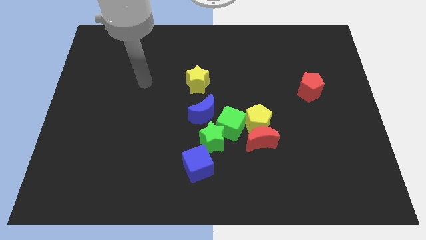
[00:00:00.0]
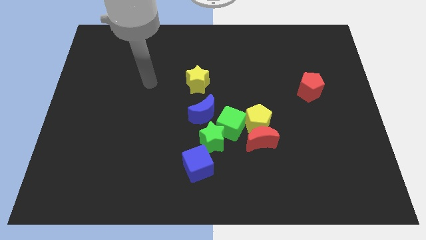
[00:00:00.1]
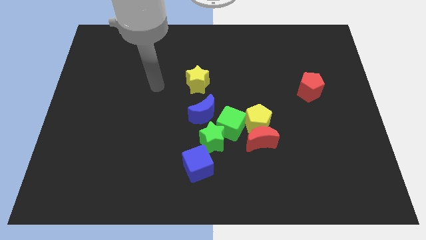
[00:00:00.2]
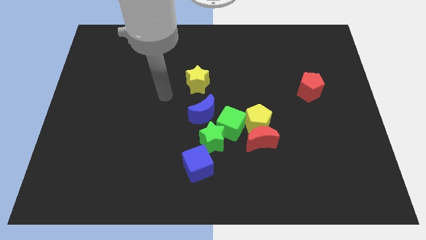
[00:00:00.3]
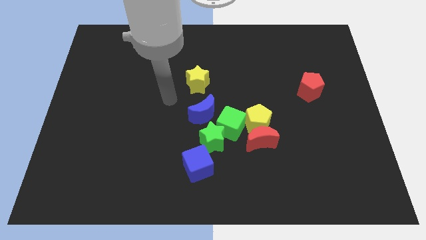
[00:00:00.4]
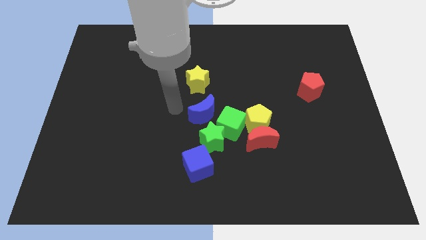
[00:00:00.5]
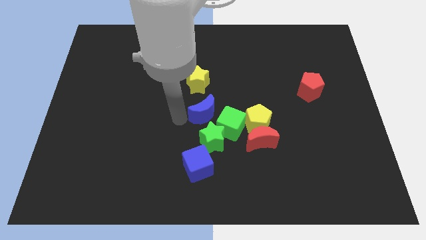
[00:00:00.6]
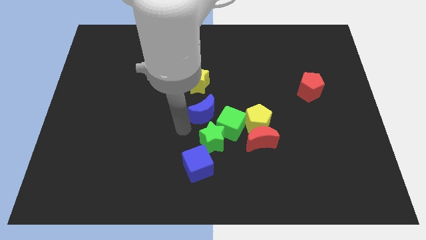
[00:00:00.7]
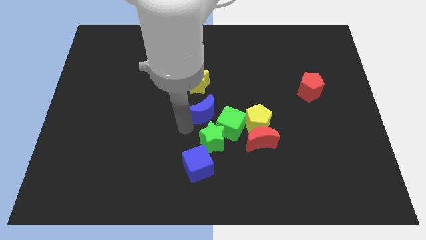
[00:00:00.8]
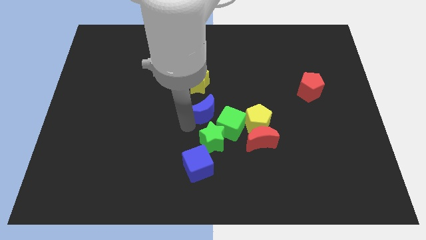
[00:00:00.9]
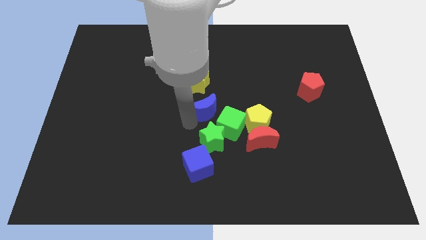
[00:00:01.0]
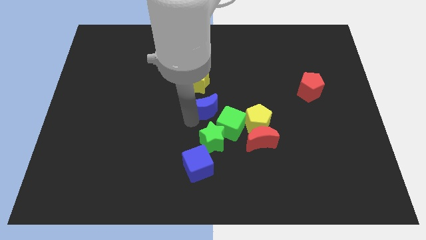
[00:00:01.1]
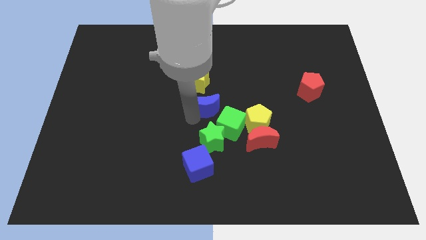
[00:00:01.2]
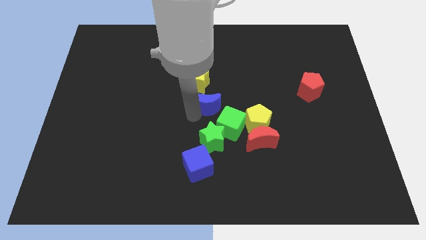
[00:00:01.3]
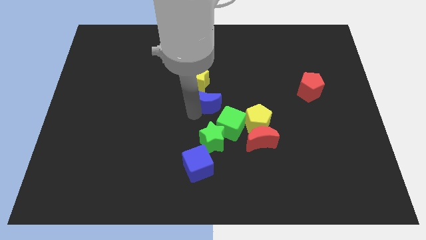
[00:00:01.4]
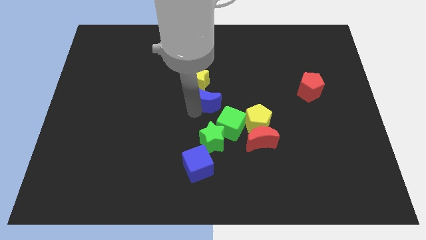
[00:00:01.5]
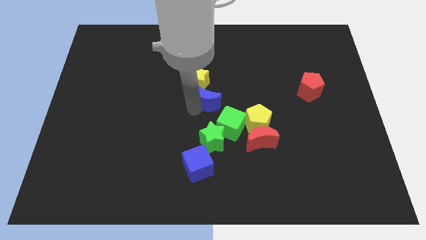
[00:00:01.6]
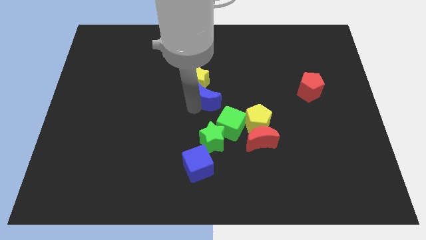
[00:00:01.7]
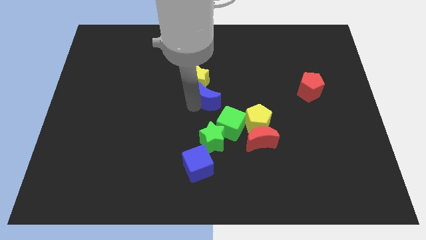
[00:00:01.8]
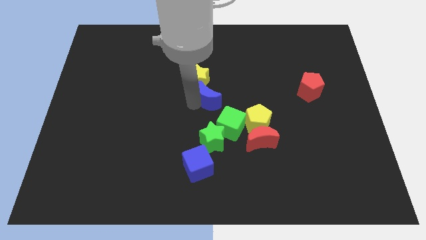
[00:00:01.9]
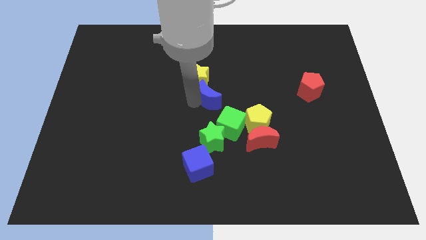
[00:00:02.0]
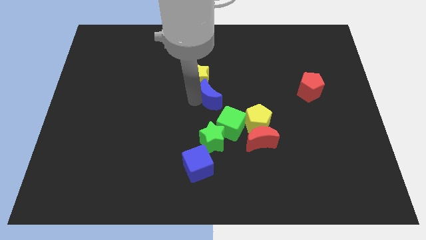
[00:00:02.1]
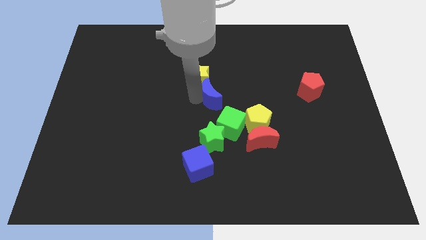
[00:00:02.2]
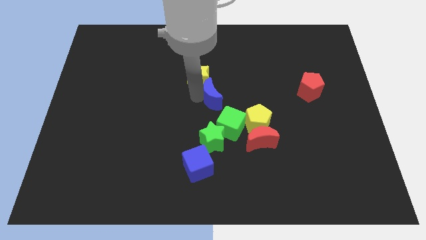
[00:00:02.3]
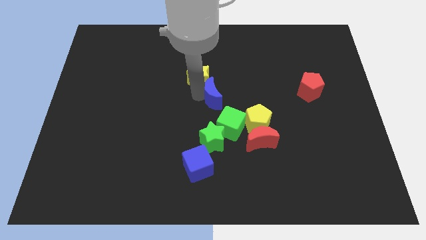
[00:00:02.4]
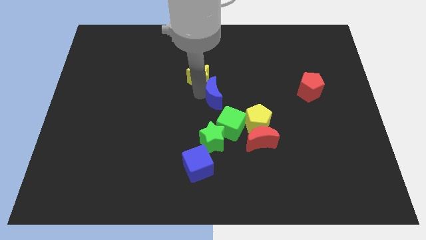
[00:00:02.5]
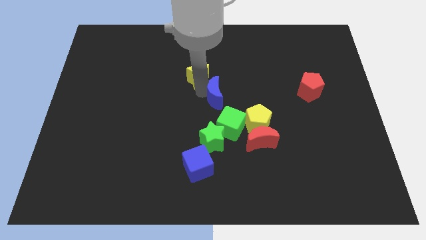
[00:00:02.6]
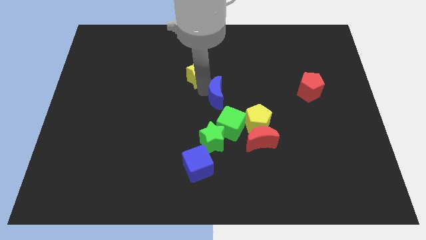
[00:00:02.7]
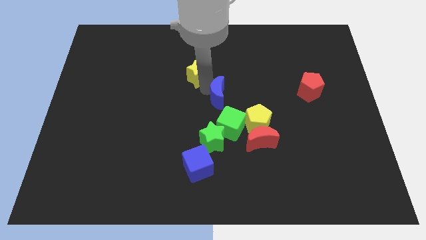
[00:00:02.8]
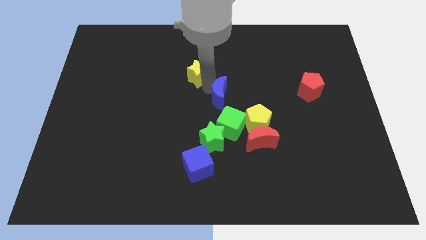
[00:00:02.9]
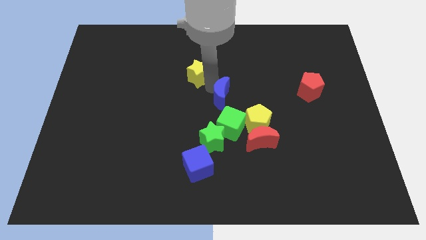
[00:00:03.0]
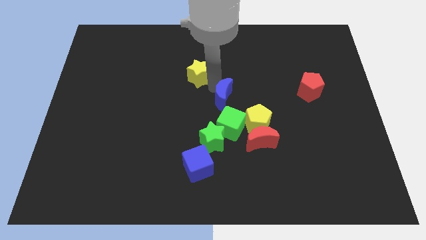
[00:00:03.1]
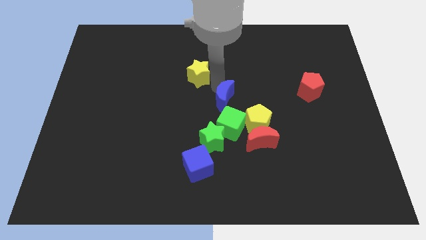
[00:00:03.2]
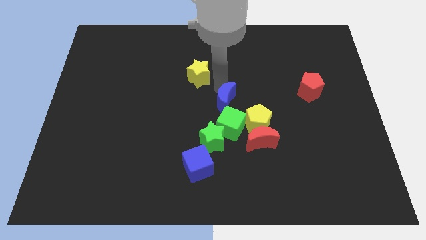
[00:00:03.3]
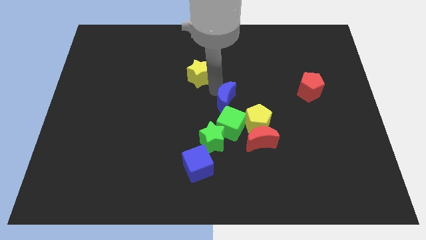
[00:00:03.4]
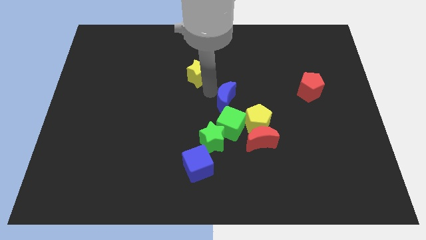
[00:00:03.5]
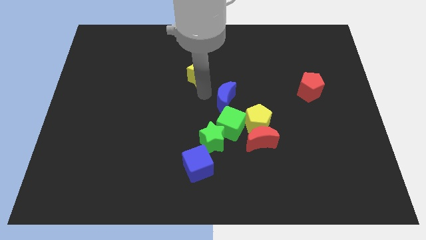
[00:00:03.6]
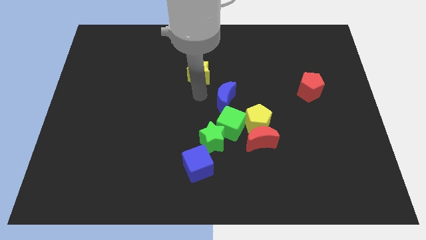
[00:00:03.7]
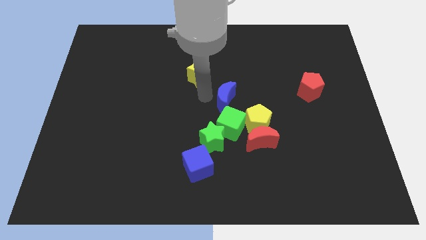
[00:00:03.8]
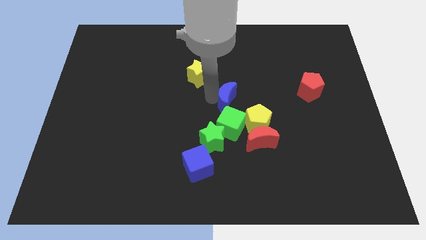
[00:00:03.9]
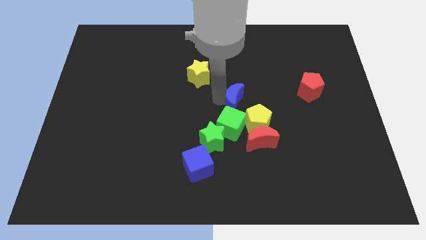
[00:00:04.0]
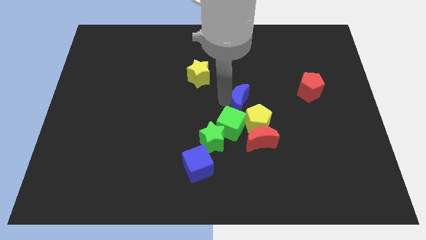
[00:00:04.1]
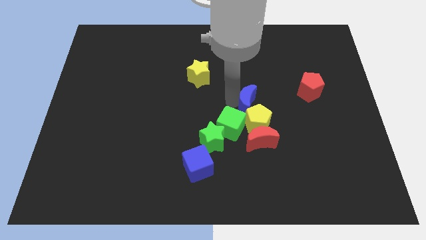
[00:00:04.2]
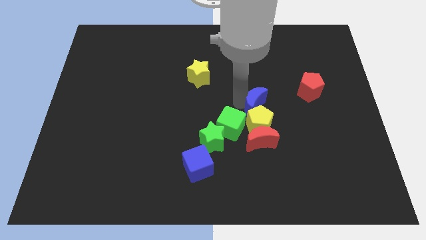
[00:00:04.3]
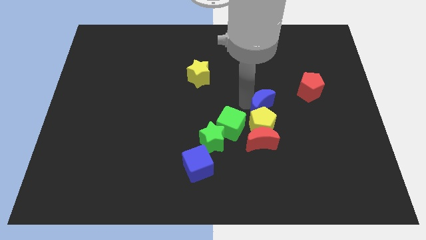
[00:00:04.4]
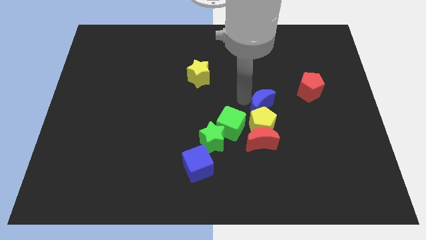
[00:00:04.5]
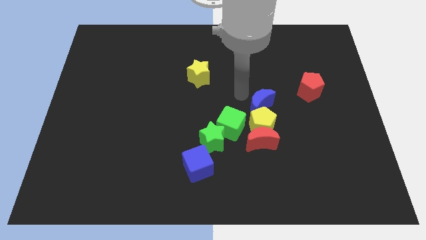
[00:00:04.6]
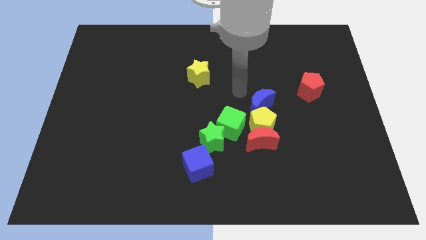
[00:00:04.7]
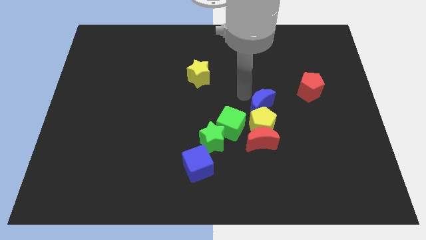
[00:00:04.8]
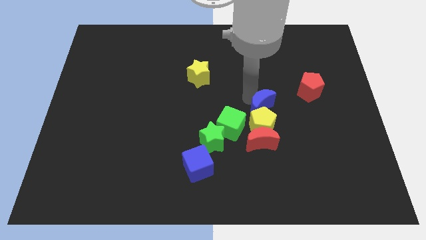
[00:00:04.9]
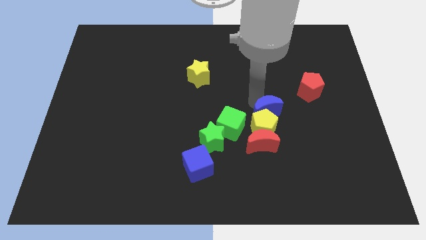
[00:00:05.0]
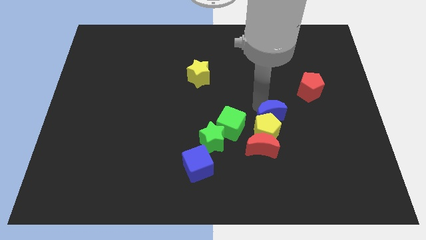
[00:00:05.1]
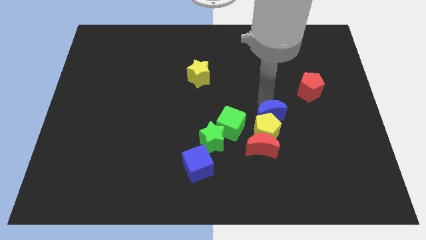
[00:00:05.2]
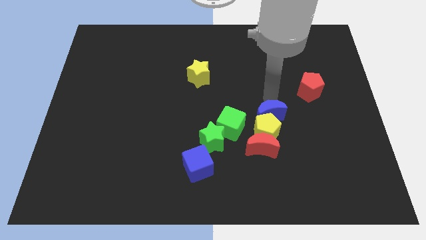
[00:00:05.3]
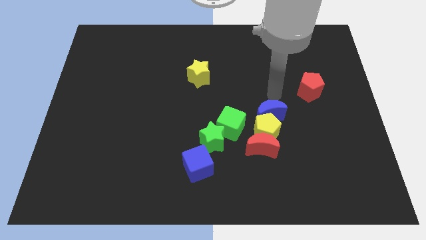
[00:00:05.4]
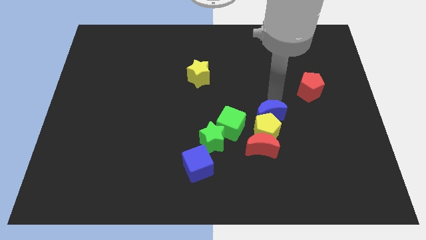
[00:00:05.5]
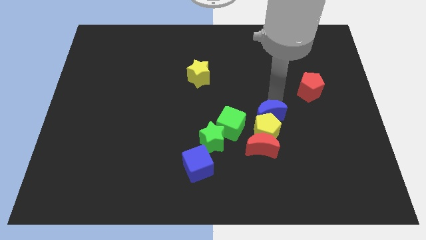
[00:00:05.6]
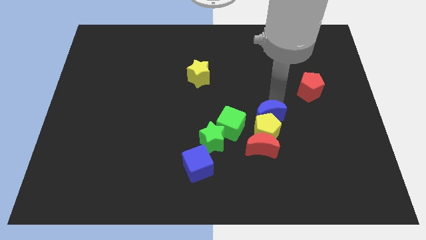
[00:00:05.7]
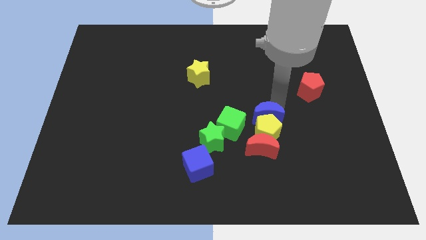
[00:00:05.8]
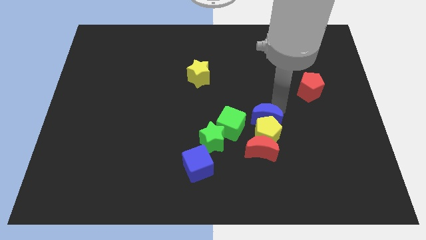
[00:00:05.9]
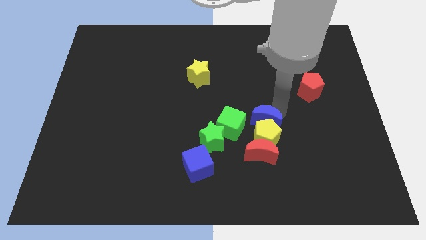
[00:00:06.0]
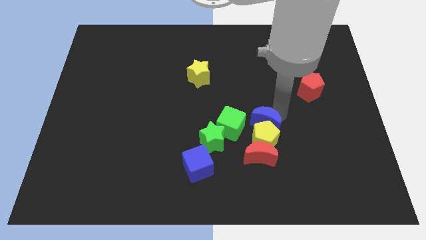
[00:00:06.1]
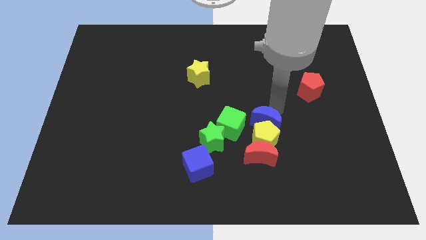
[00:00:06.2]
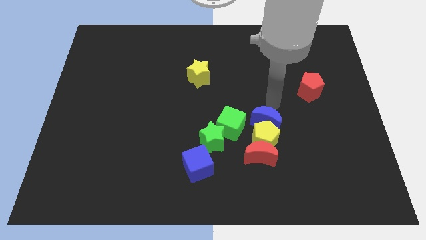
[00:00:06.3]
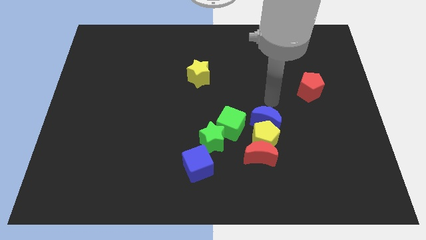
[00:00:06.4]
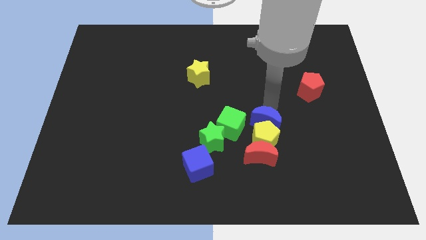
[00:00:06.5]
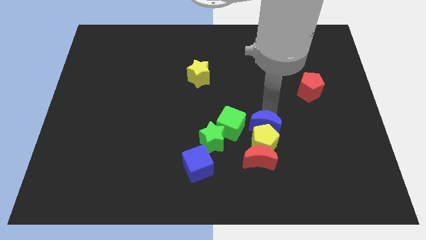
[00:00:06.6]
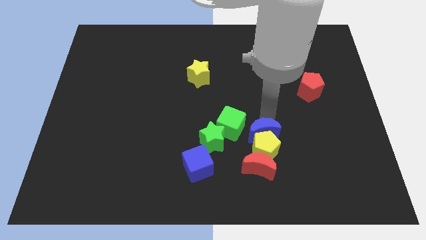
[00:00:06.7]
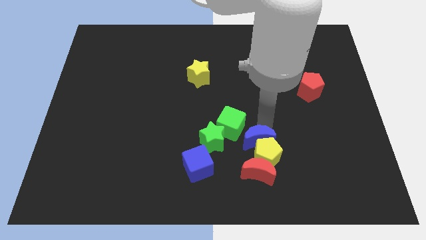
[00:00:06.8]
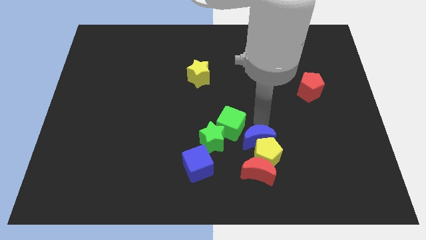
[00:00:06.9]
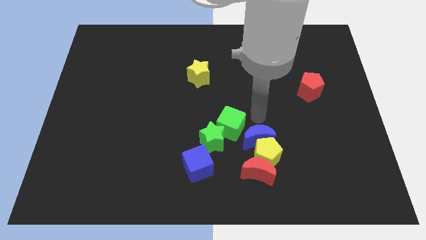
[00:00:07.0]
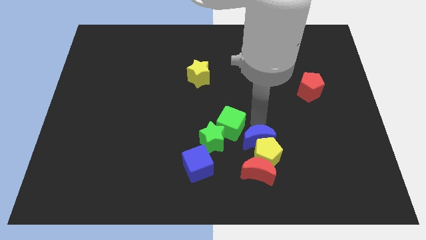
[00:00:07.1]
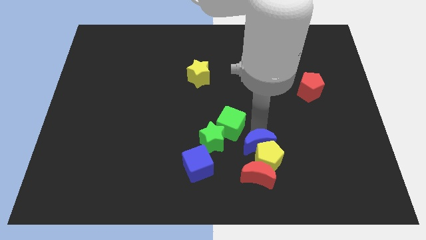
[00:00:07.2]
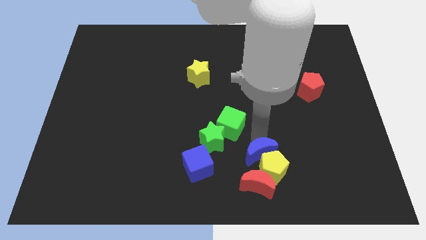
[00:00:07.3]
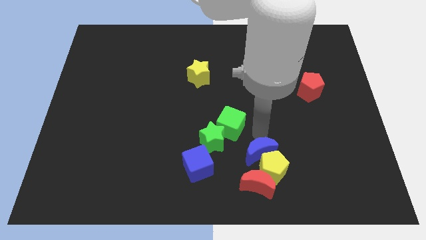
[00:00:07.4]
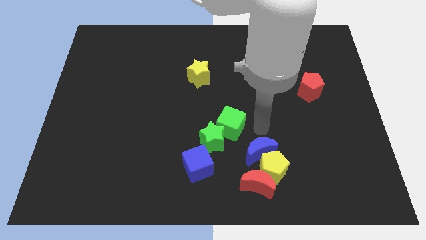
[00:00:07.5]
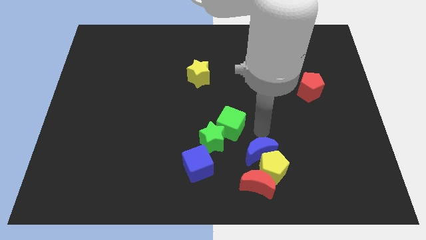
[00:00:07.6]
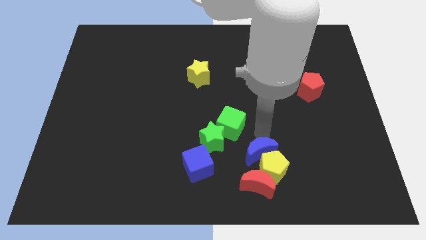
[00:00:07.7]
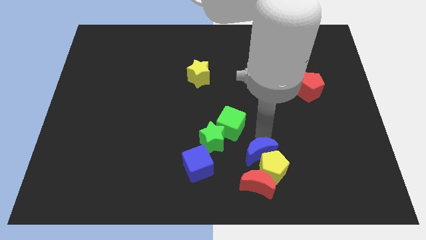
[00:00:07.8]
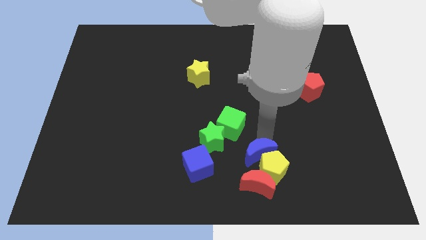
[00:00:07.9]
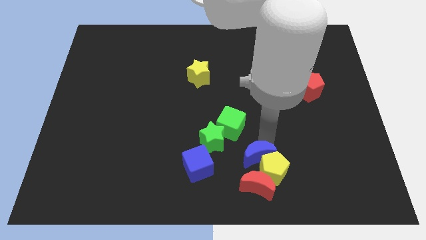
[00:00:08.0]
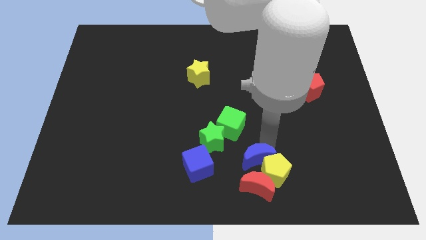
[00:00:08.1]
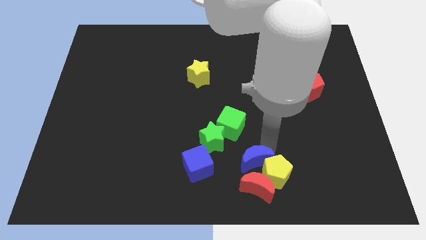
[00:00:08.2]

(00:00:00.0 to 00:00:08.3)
slide the blue moon next to the red moon
